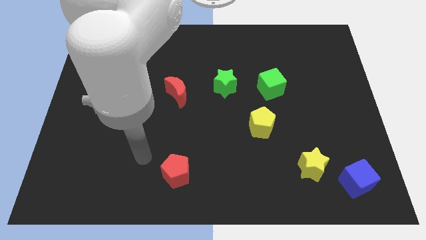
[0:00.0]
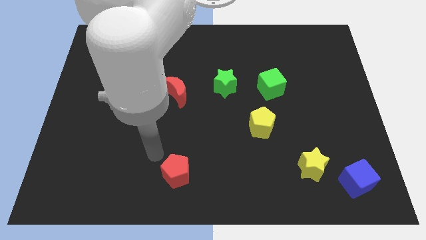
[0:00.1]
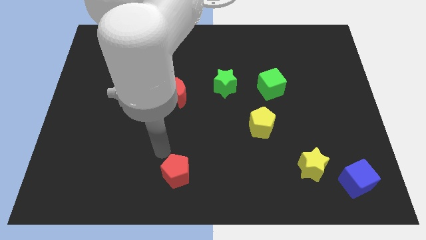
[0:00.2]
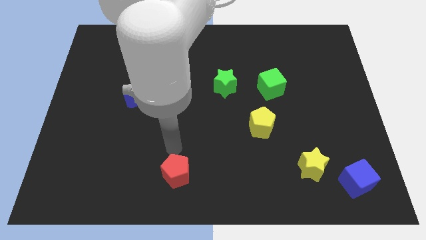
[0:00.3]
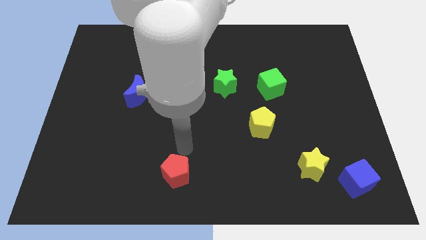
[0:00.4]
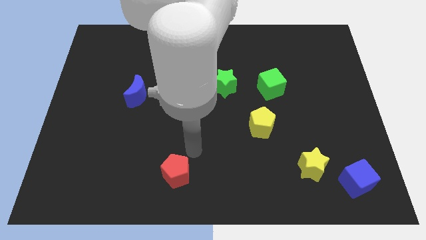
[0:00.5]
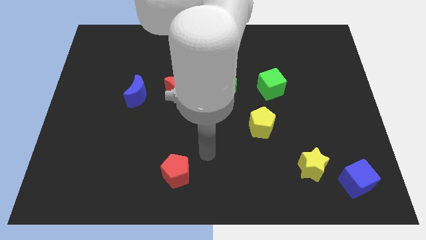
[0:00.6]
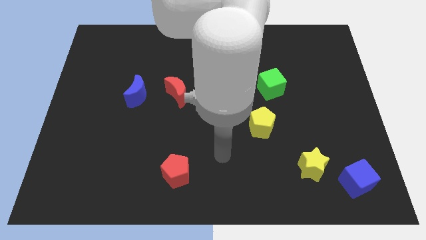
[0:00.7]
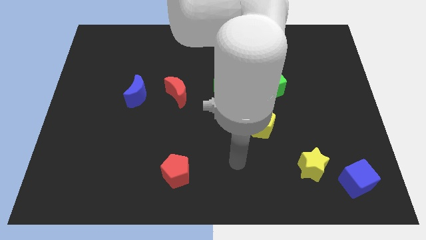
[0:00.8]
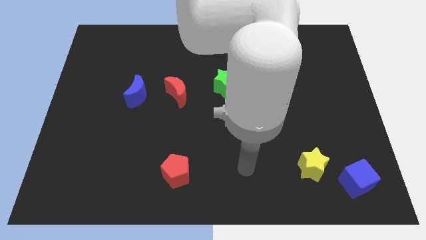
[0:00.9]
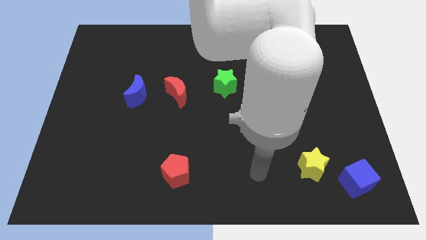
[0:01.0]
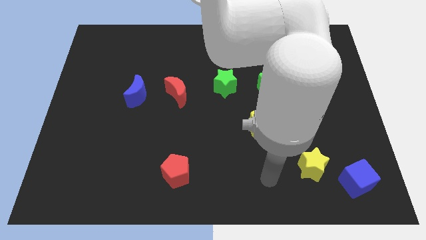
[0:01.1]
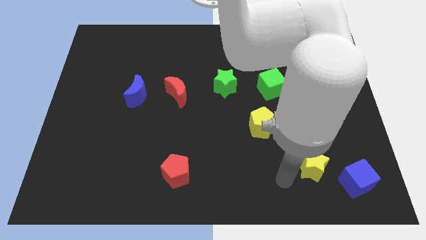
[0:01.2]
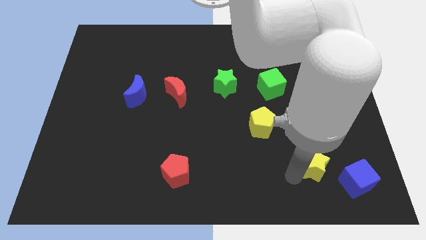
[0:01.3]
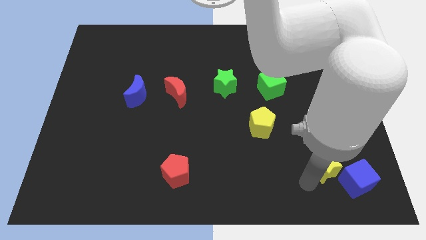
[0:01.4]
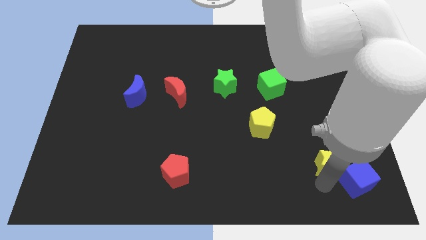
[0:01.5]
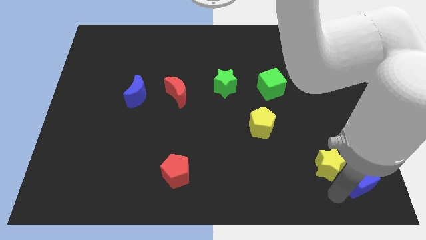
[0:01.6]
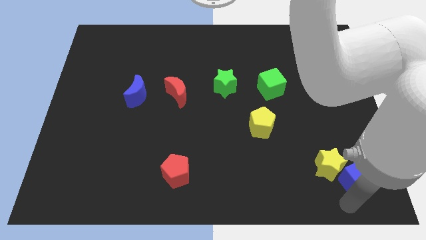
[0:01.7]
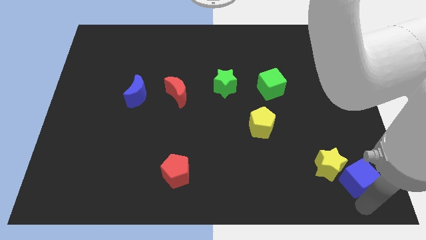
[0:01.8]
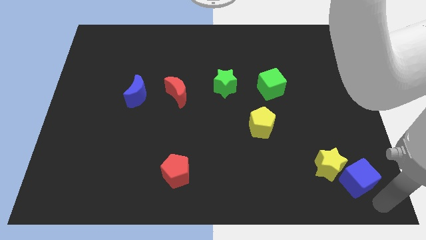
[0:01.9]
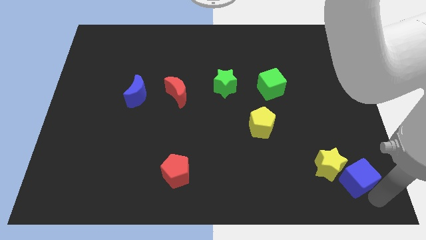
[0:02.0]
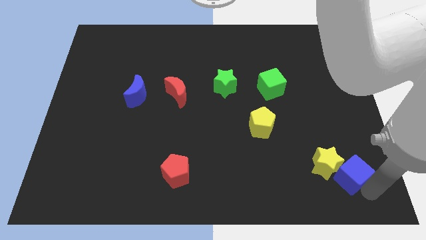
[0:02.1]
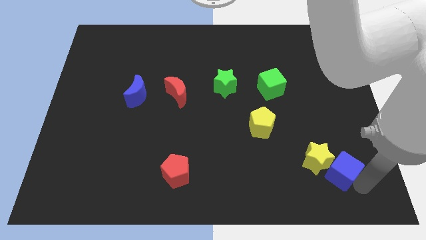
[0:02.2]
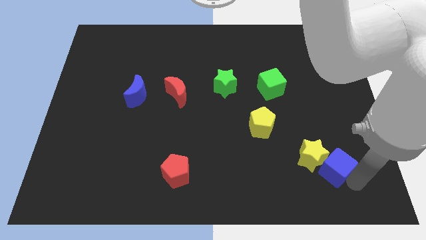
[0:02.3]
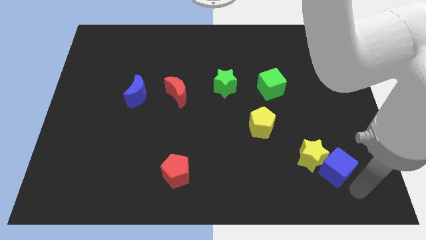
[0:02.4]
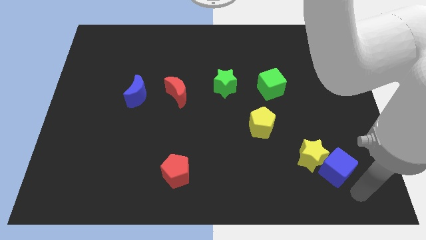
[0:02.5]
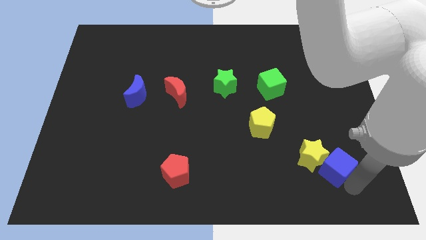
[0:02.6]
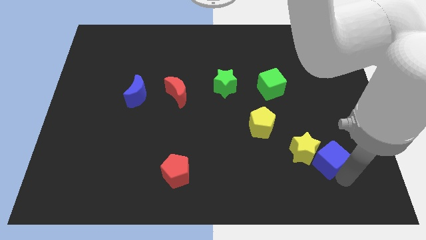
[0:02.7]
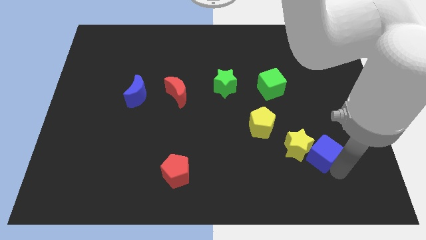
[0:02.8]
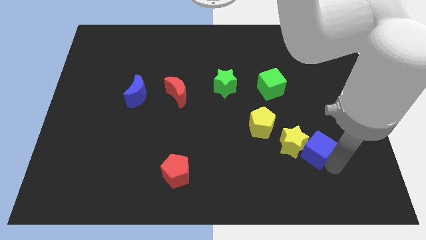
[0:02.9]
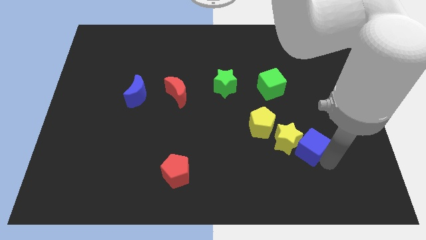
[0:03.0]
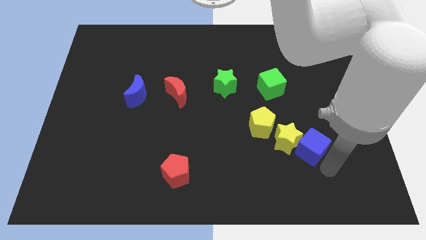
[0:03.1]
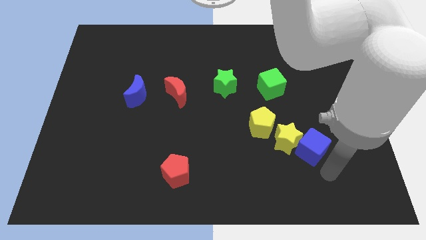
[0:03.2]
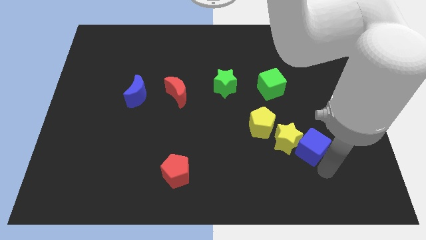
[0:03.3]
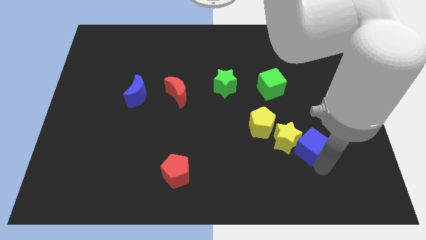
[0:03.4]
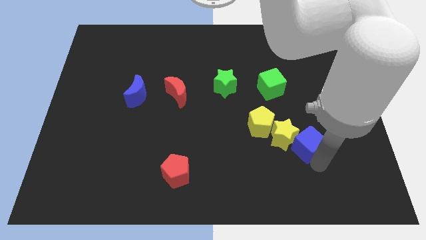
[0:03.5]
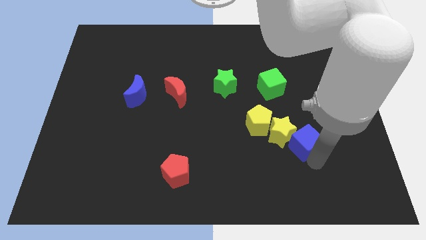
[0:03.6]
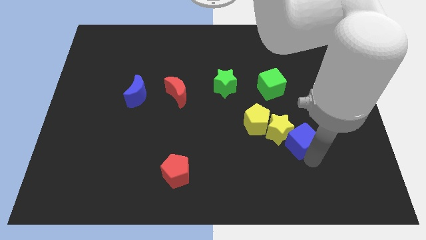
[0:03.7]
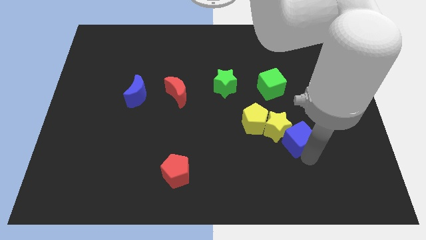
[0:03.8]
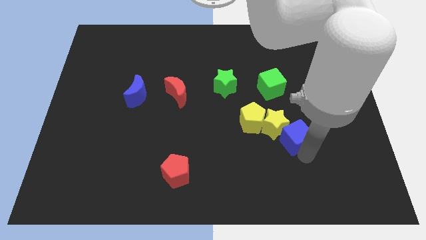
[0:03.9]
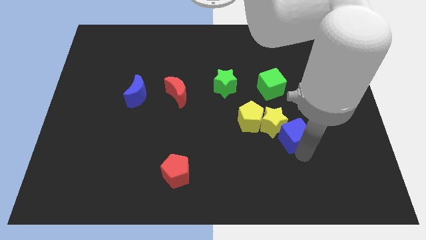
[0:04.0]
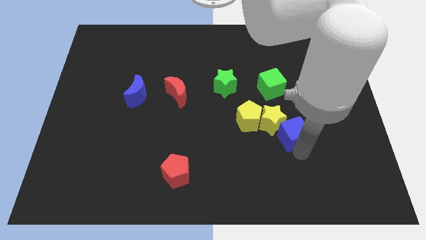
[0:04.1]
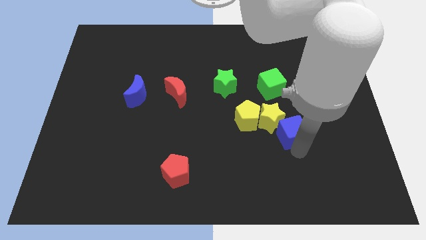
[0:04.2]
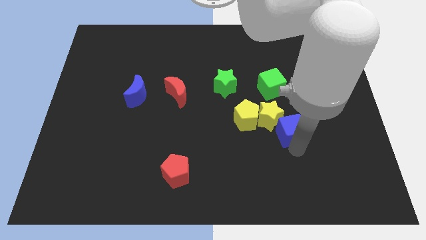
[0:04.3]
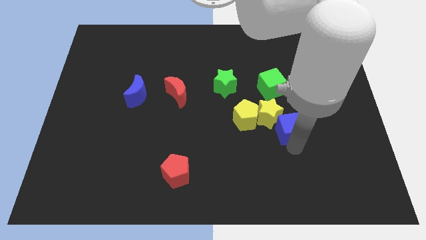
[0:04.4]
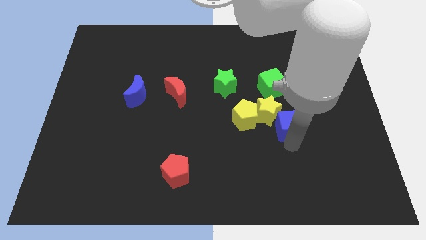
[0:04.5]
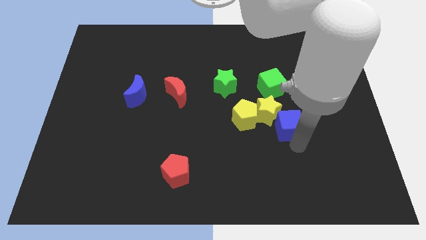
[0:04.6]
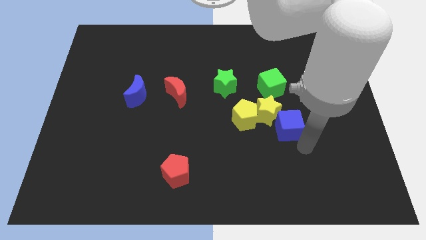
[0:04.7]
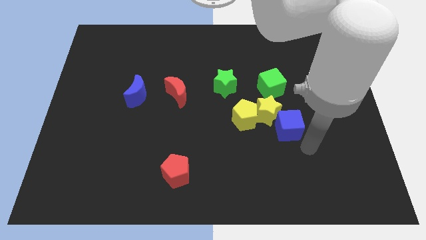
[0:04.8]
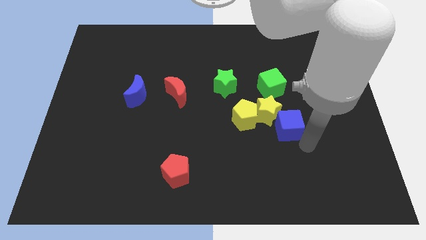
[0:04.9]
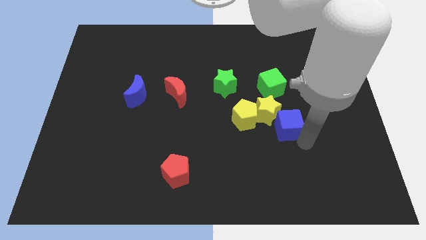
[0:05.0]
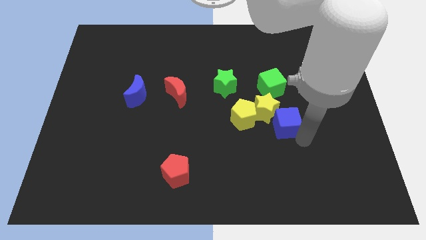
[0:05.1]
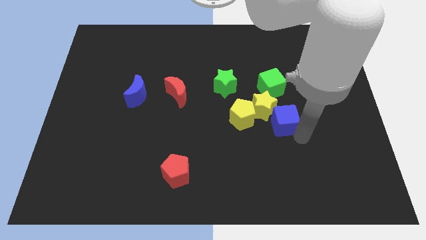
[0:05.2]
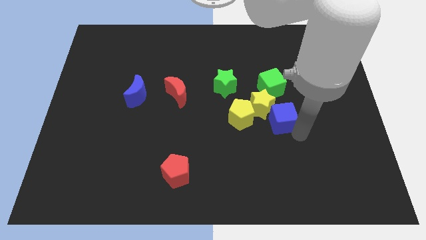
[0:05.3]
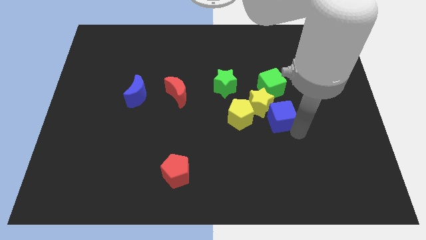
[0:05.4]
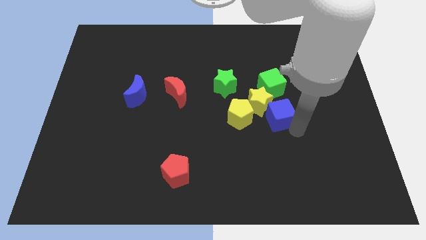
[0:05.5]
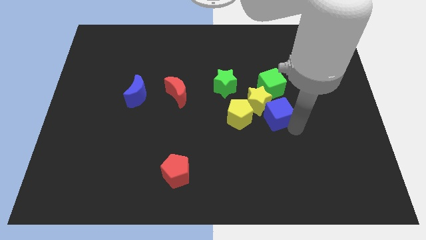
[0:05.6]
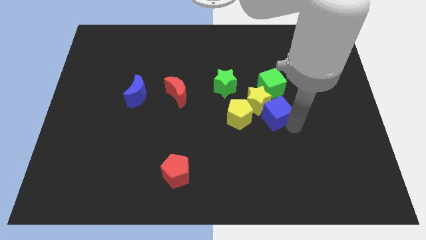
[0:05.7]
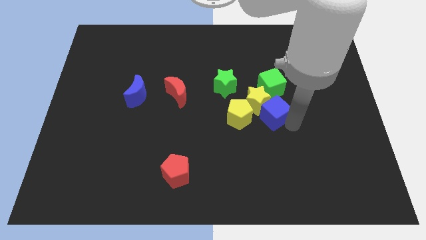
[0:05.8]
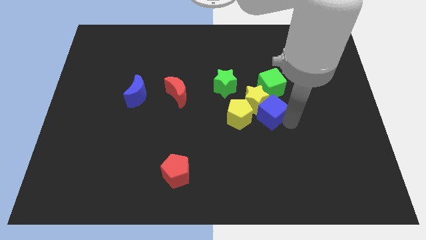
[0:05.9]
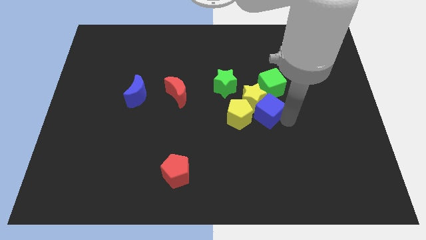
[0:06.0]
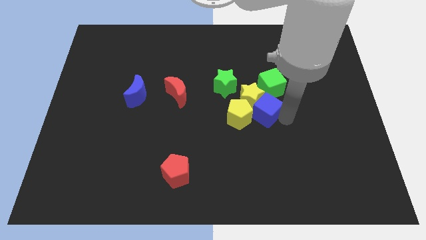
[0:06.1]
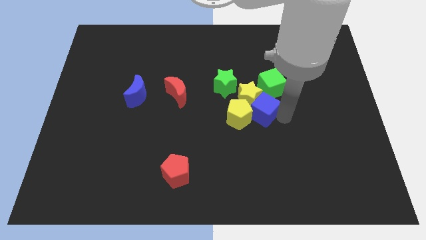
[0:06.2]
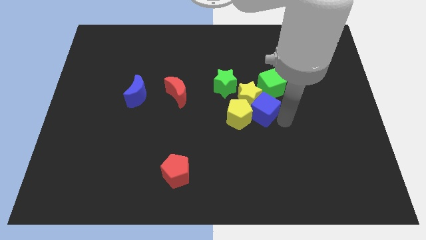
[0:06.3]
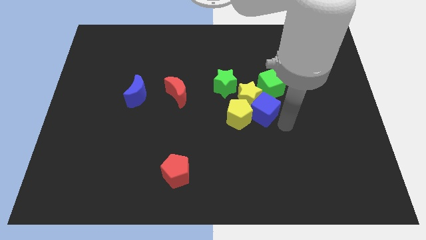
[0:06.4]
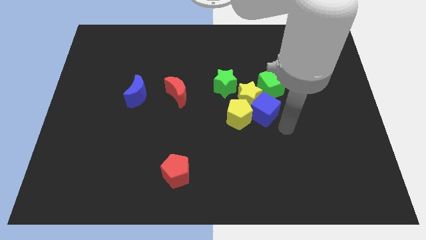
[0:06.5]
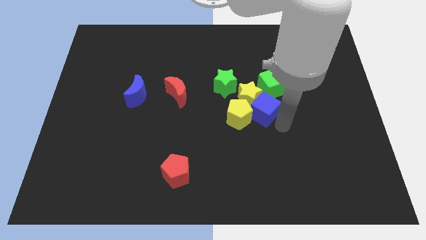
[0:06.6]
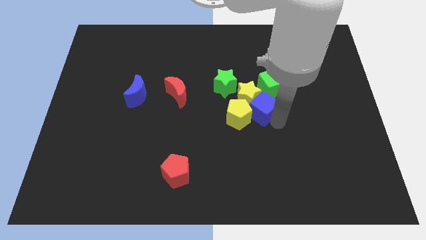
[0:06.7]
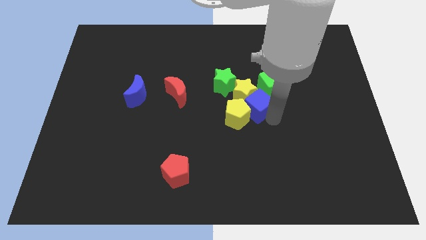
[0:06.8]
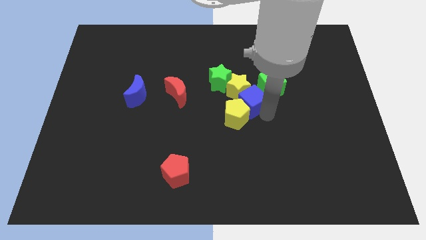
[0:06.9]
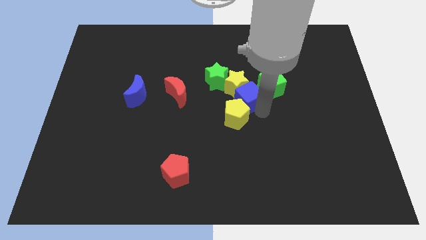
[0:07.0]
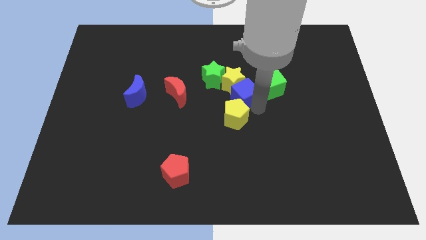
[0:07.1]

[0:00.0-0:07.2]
push the blue cube right of the red moon
